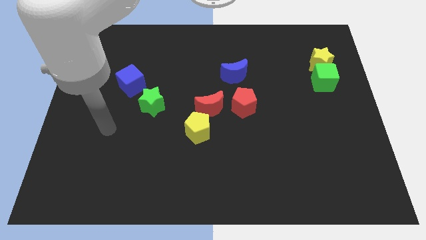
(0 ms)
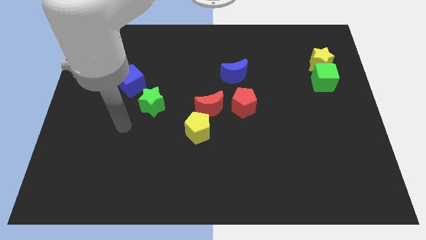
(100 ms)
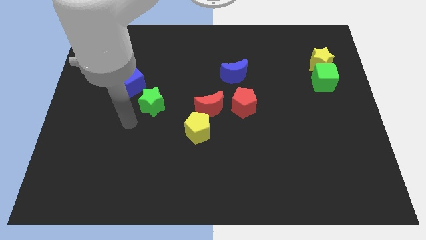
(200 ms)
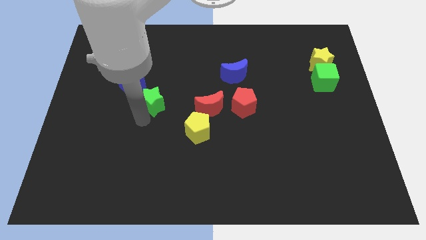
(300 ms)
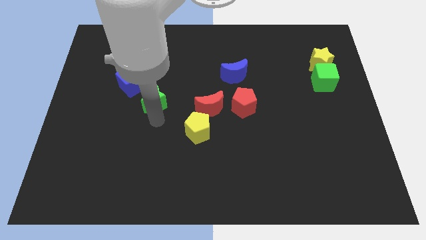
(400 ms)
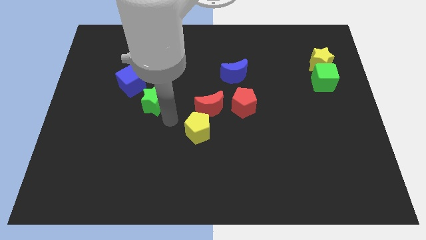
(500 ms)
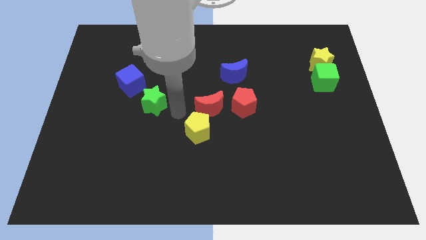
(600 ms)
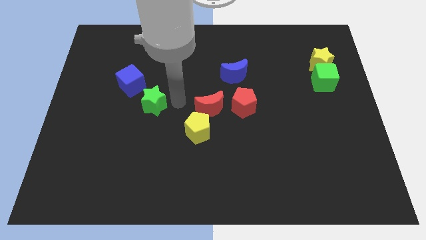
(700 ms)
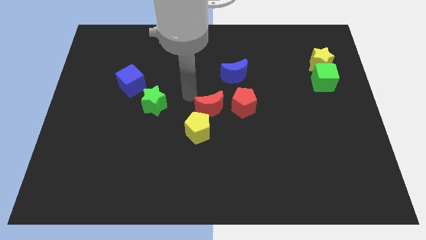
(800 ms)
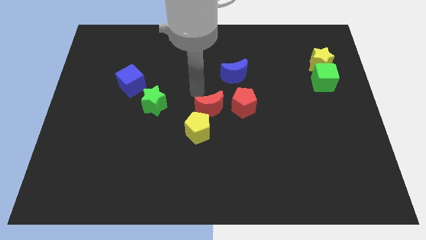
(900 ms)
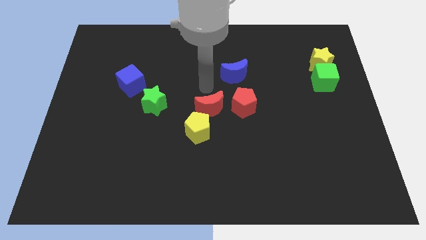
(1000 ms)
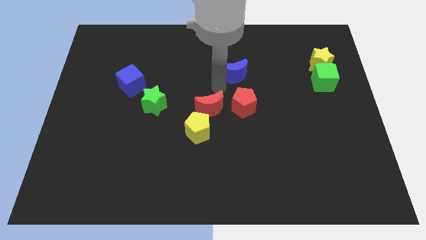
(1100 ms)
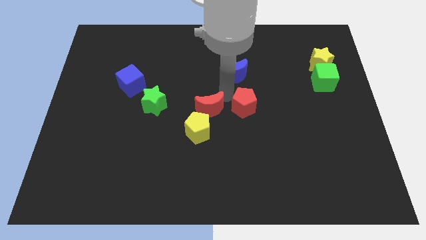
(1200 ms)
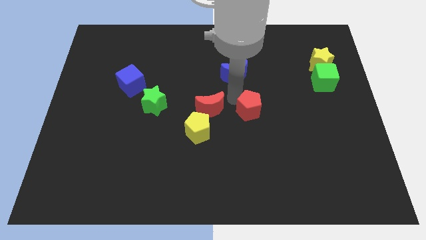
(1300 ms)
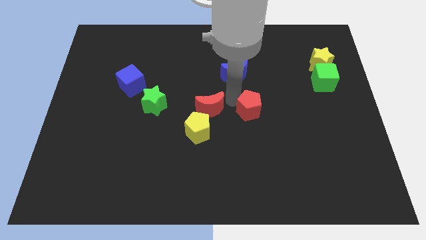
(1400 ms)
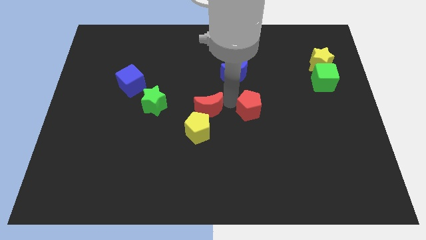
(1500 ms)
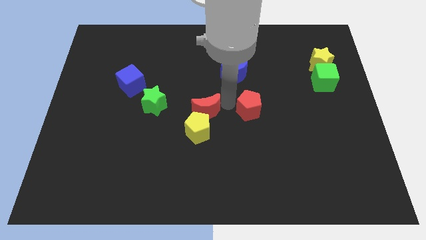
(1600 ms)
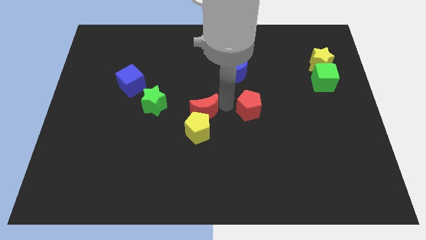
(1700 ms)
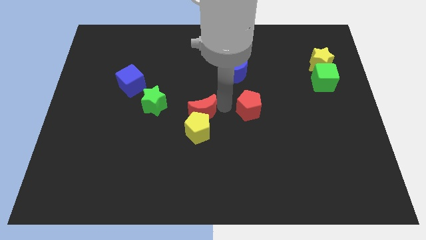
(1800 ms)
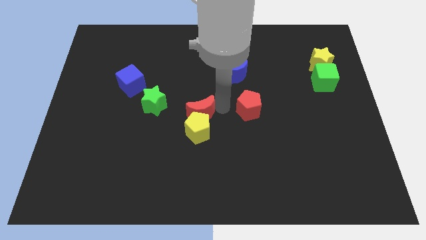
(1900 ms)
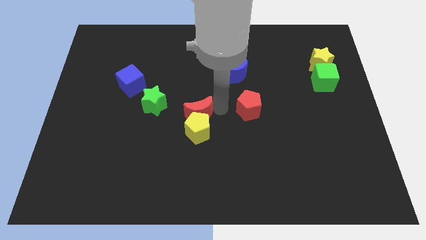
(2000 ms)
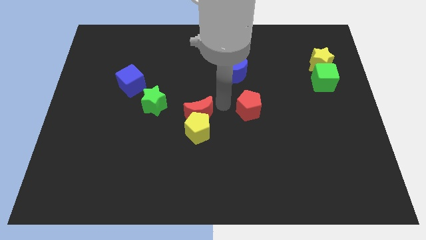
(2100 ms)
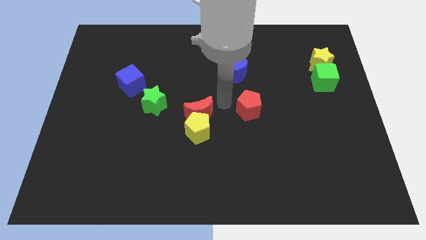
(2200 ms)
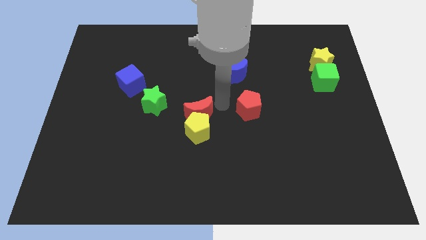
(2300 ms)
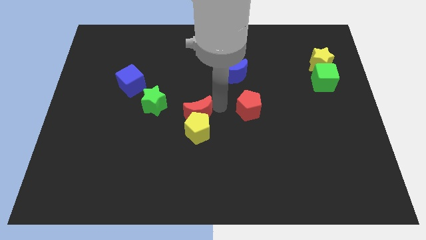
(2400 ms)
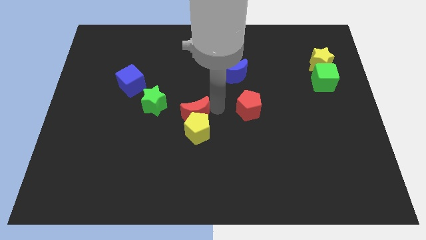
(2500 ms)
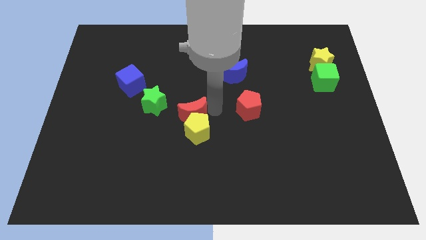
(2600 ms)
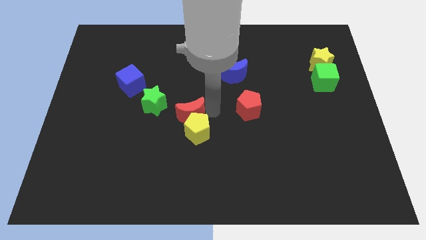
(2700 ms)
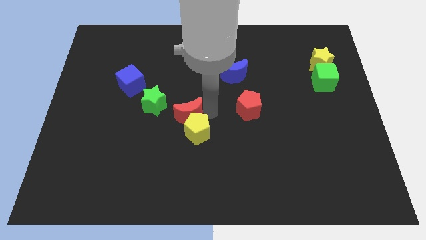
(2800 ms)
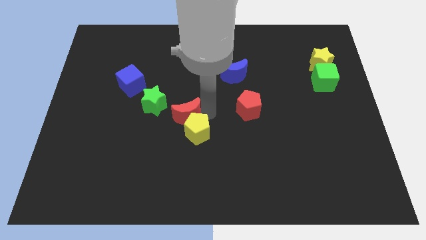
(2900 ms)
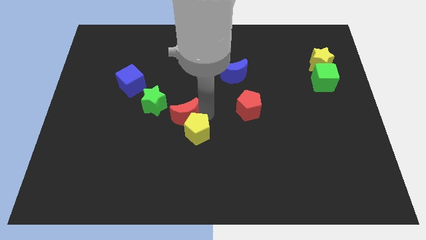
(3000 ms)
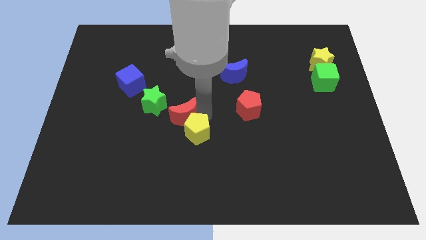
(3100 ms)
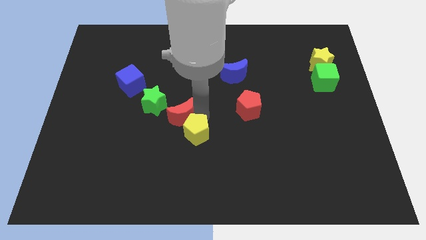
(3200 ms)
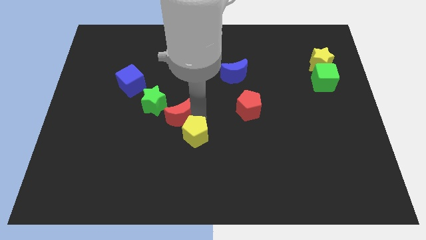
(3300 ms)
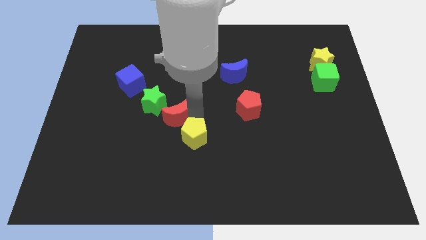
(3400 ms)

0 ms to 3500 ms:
slightly move the red moon down and to the left diagonally

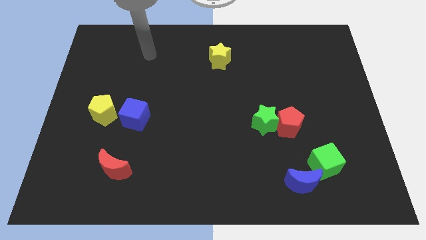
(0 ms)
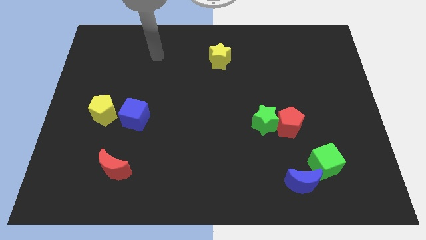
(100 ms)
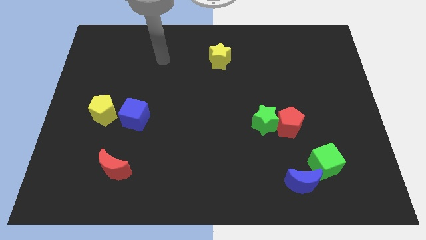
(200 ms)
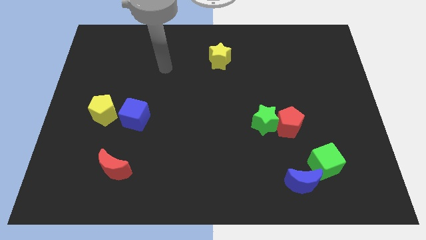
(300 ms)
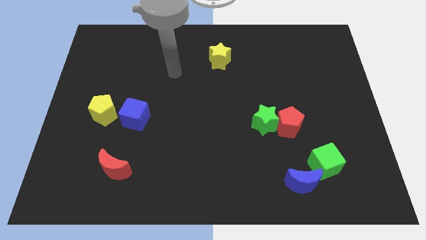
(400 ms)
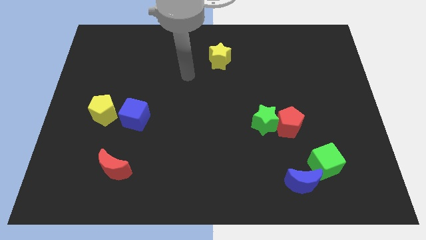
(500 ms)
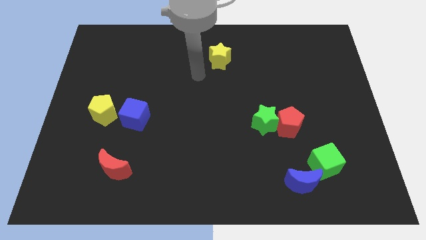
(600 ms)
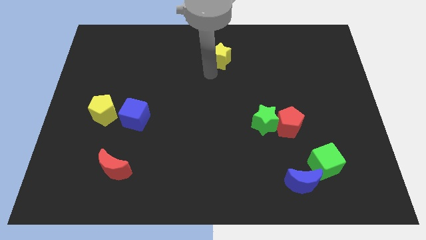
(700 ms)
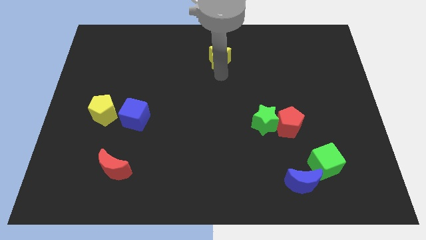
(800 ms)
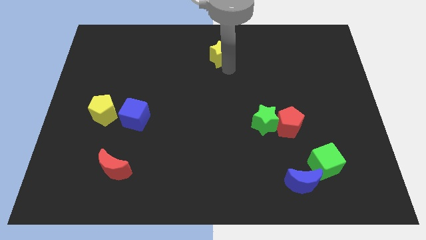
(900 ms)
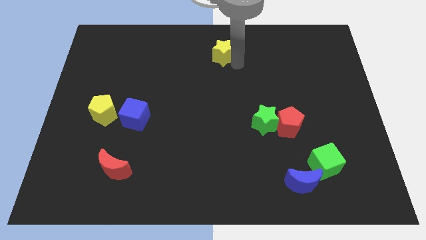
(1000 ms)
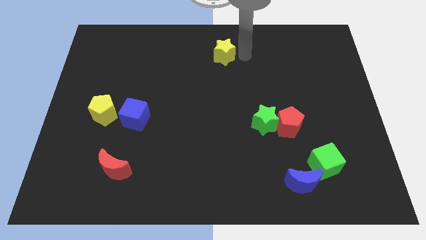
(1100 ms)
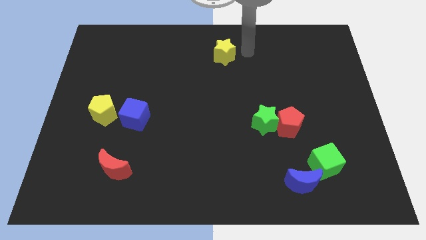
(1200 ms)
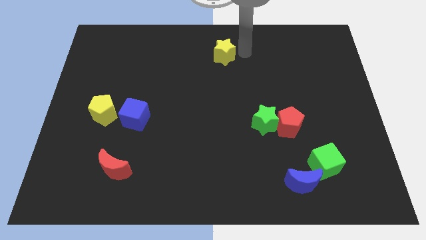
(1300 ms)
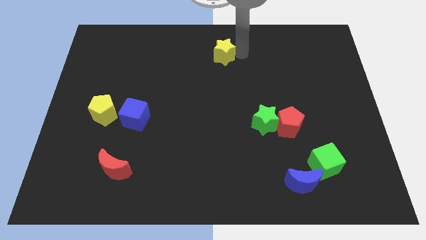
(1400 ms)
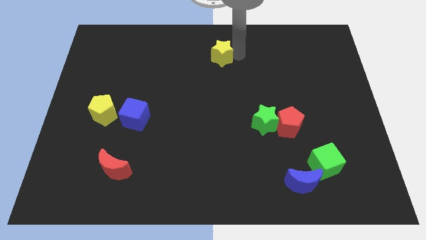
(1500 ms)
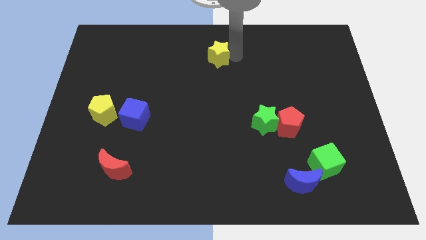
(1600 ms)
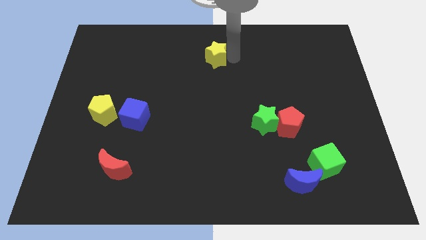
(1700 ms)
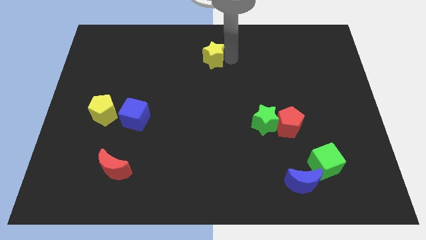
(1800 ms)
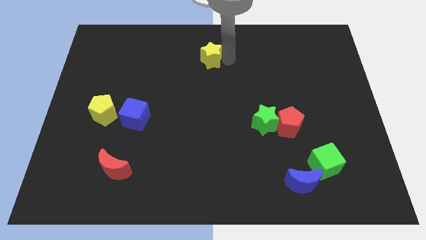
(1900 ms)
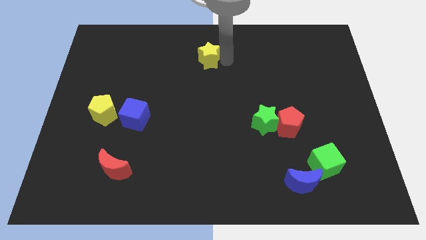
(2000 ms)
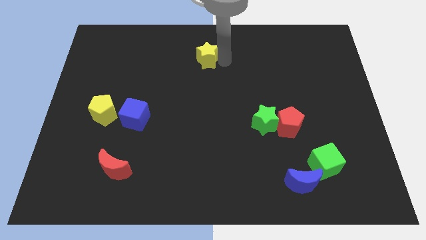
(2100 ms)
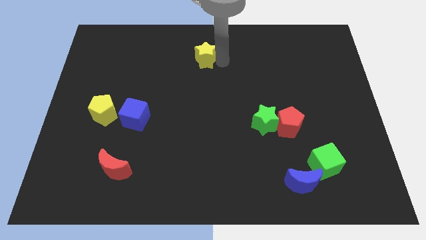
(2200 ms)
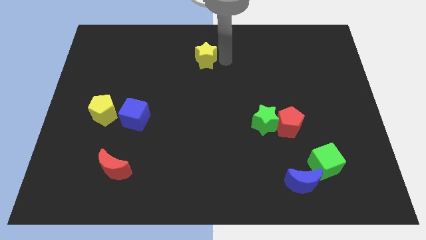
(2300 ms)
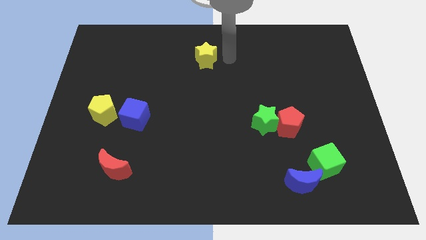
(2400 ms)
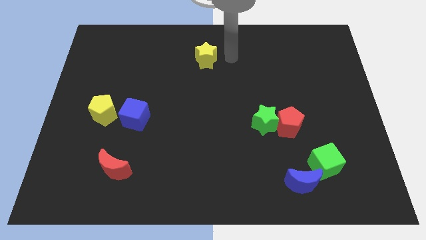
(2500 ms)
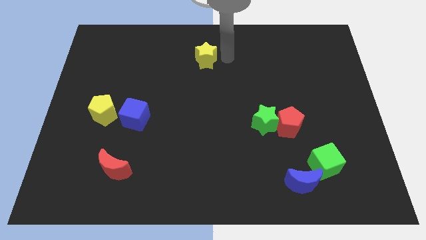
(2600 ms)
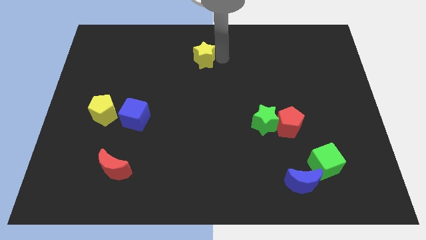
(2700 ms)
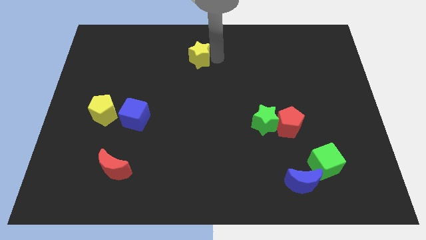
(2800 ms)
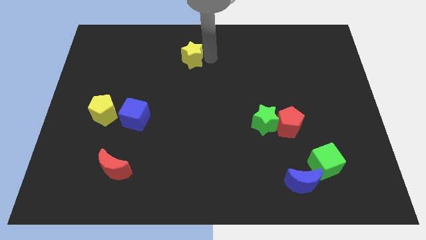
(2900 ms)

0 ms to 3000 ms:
move the yellow star a little bit left

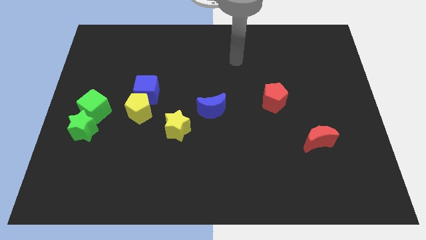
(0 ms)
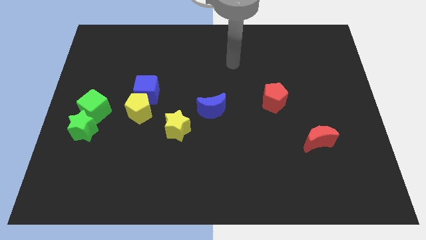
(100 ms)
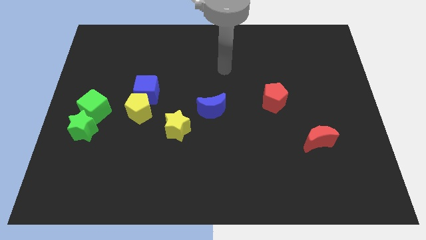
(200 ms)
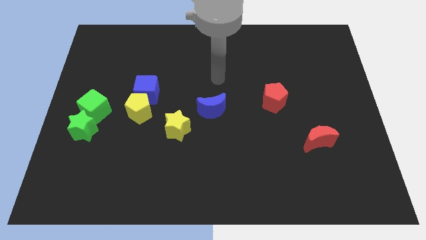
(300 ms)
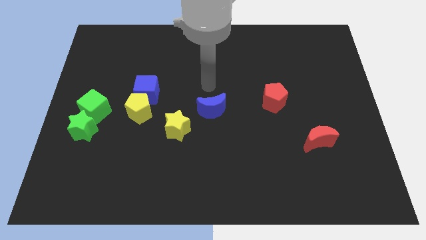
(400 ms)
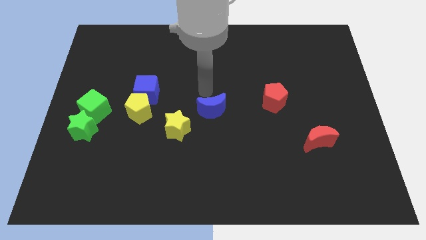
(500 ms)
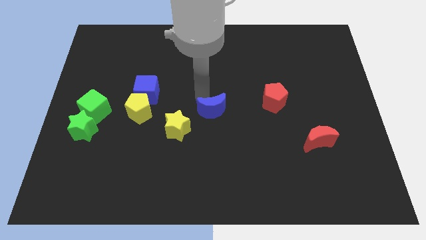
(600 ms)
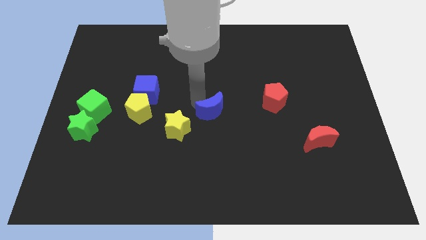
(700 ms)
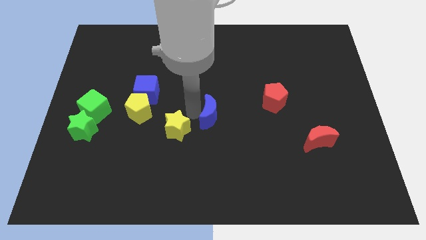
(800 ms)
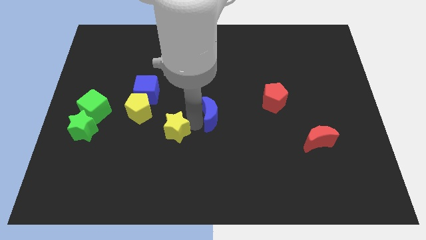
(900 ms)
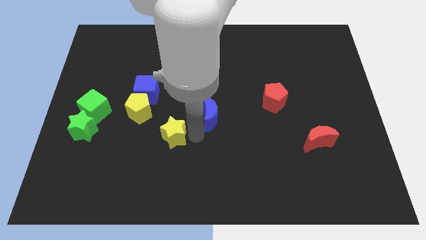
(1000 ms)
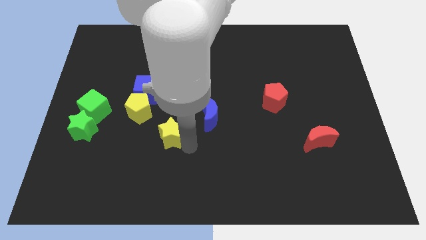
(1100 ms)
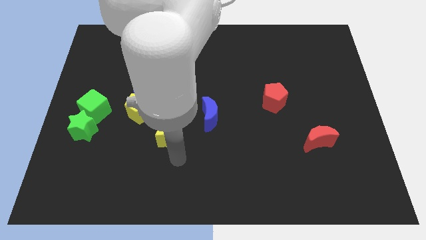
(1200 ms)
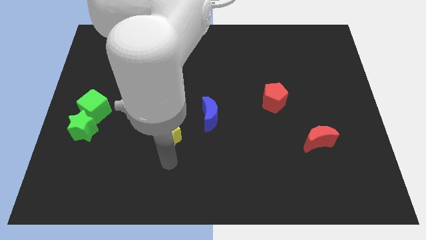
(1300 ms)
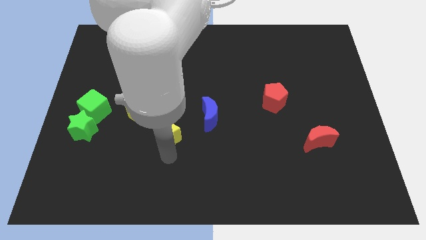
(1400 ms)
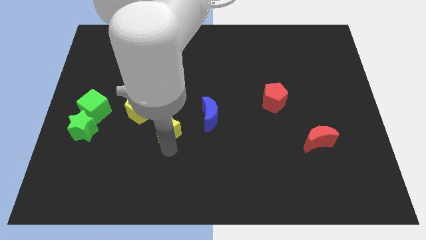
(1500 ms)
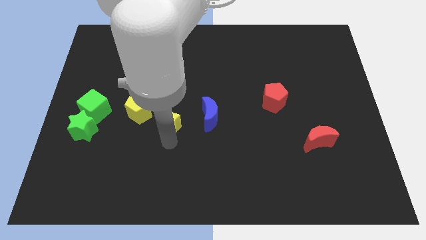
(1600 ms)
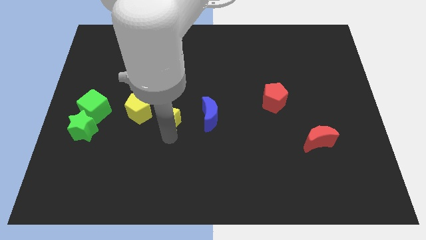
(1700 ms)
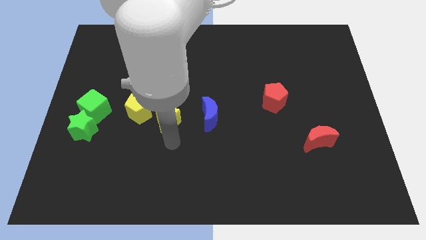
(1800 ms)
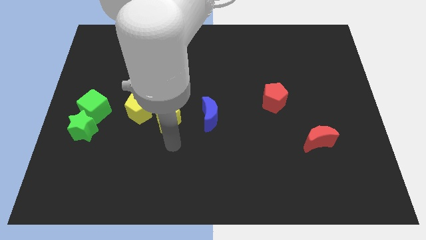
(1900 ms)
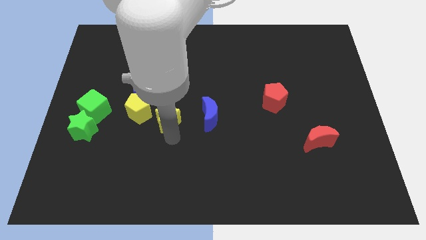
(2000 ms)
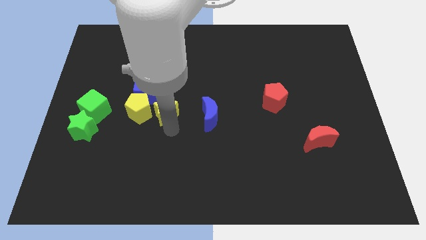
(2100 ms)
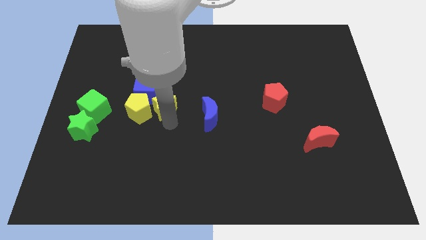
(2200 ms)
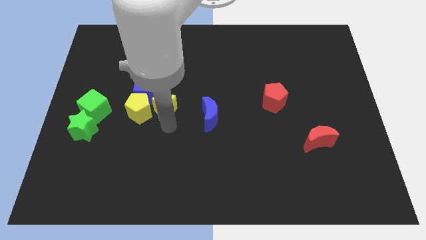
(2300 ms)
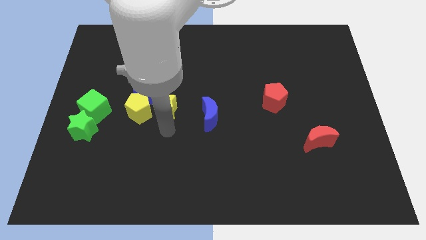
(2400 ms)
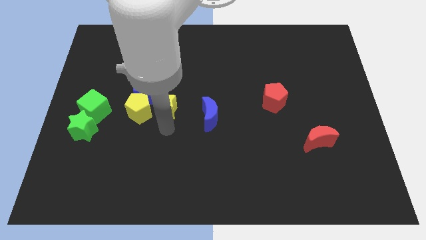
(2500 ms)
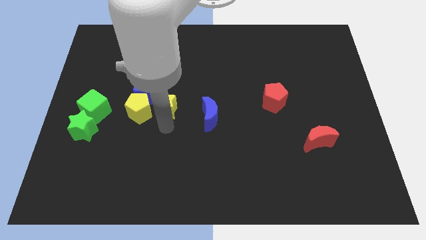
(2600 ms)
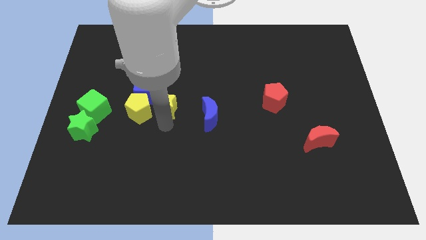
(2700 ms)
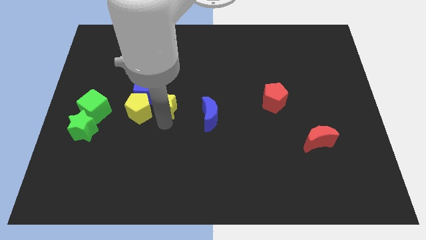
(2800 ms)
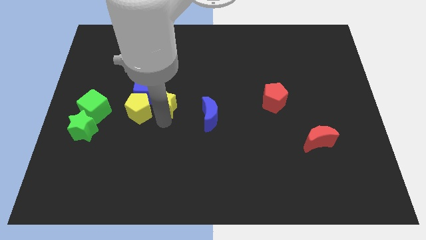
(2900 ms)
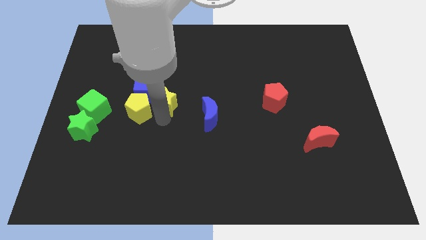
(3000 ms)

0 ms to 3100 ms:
slightly move the yellow star diagonally upwards and to the left
